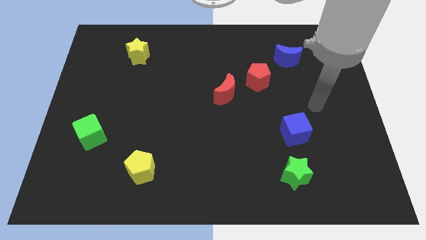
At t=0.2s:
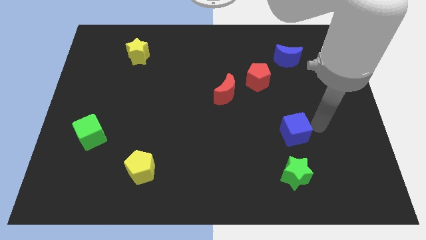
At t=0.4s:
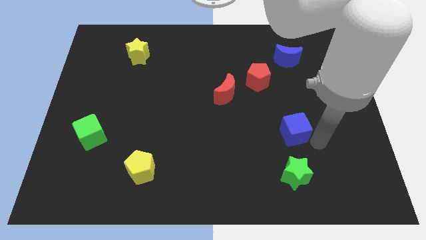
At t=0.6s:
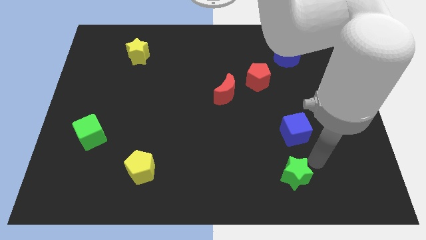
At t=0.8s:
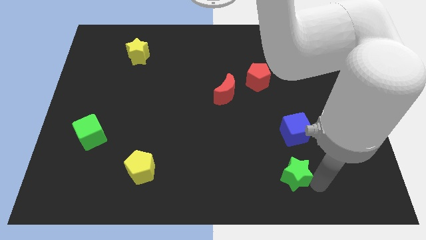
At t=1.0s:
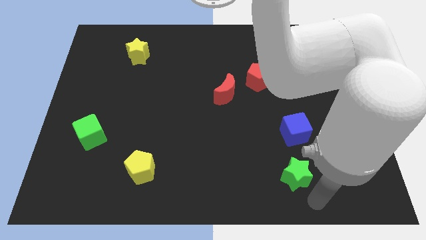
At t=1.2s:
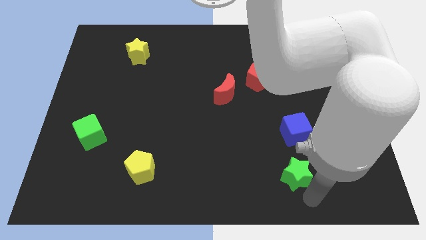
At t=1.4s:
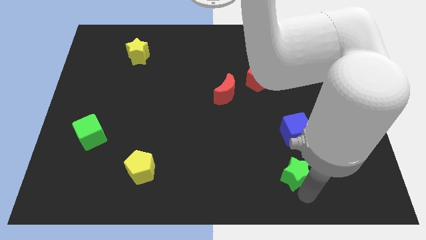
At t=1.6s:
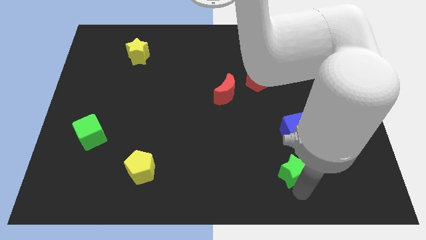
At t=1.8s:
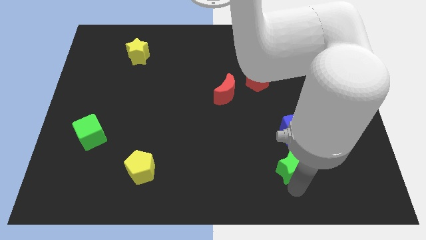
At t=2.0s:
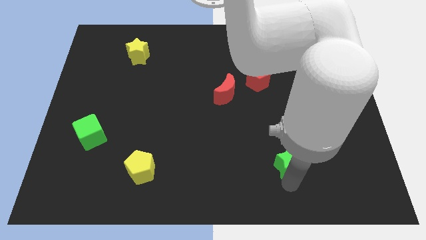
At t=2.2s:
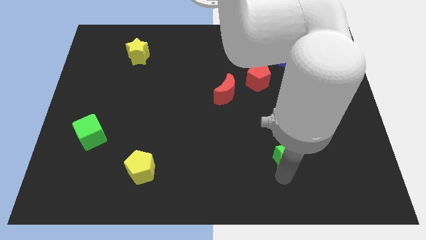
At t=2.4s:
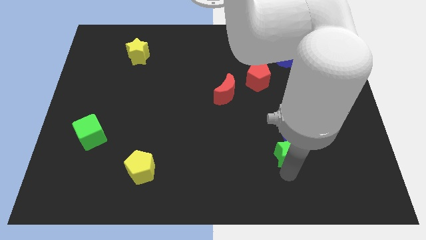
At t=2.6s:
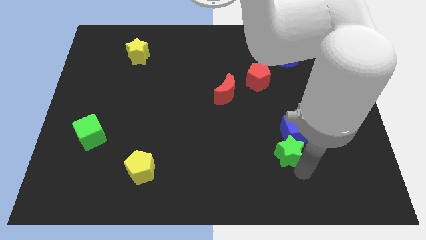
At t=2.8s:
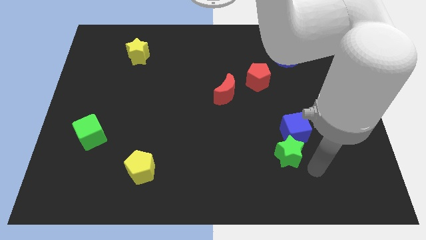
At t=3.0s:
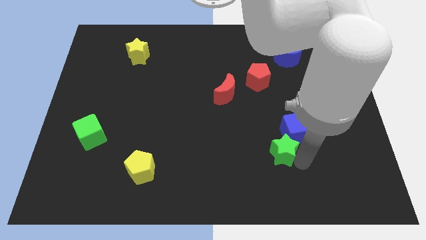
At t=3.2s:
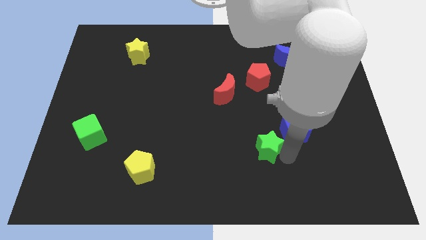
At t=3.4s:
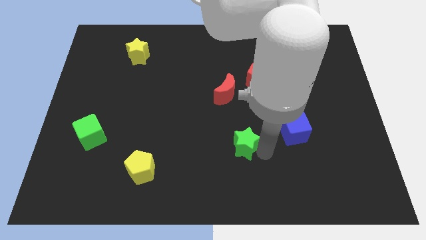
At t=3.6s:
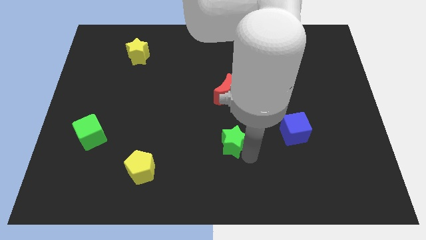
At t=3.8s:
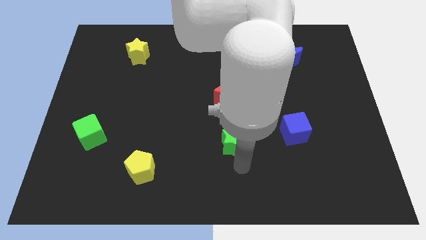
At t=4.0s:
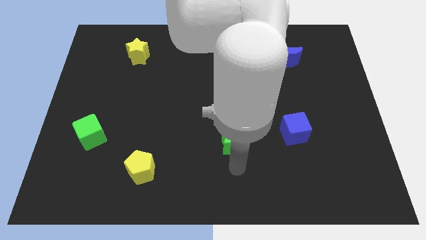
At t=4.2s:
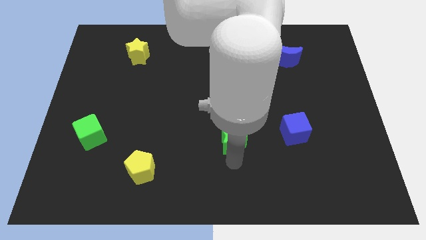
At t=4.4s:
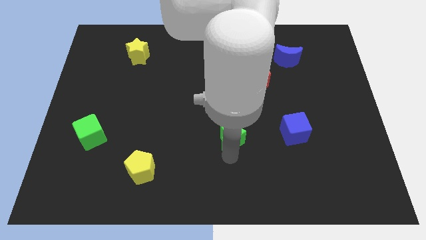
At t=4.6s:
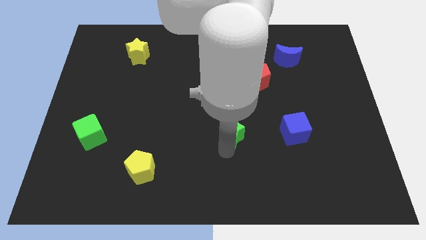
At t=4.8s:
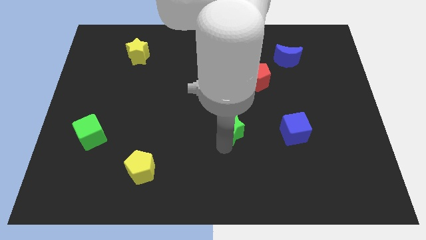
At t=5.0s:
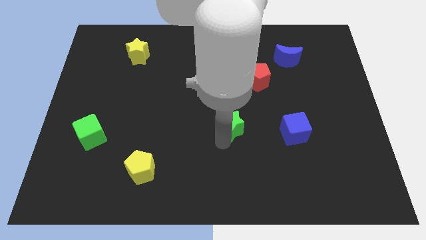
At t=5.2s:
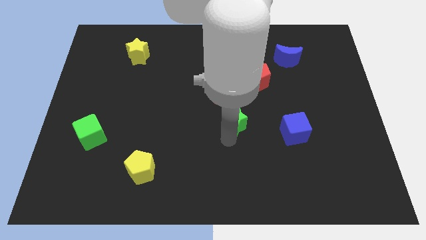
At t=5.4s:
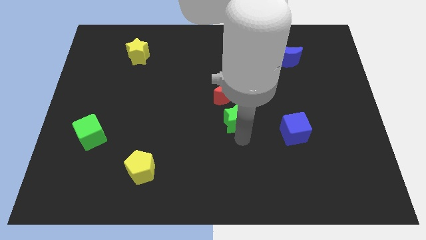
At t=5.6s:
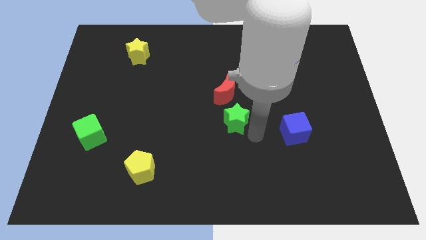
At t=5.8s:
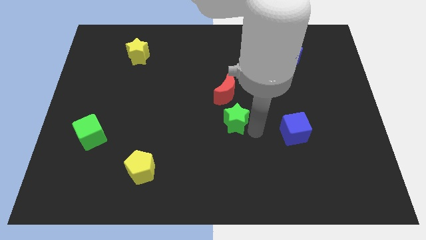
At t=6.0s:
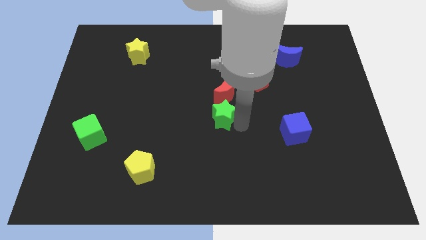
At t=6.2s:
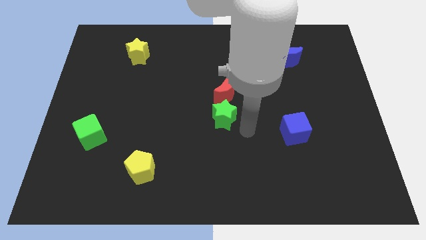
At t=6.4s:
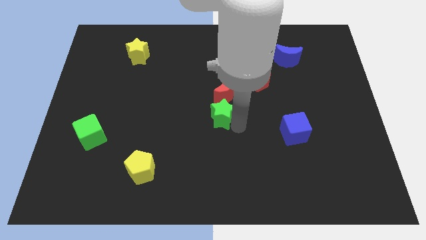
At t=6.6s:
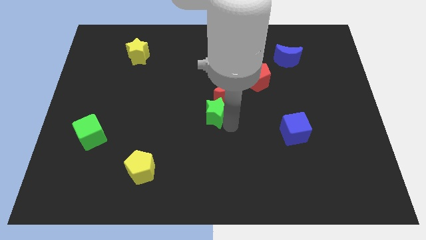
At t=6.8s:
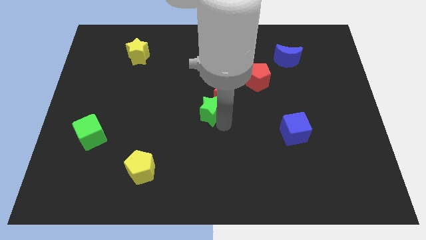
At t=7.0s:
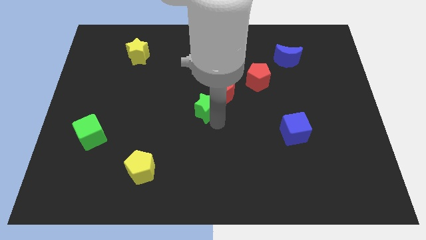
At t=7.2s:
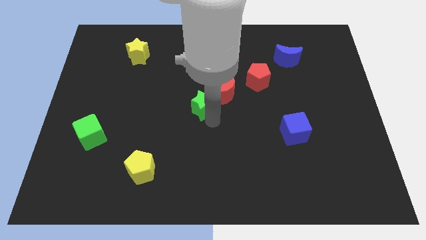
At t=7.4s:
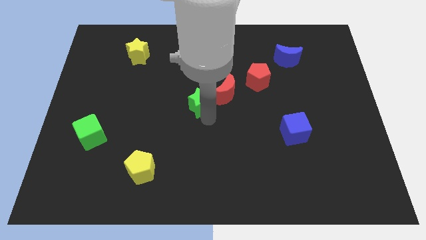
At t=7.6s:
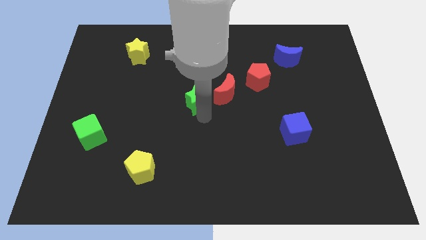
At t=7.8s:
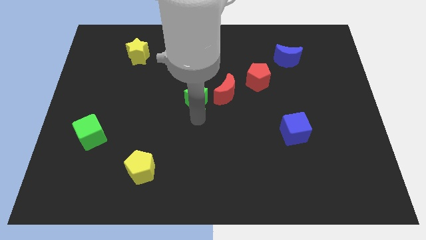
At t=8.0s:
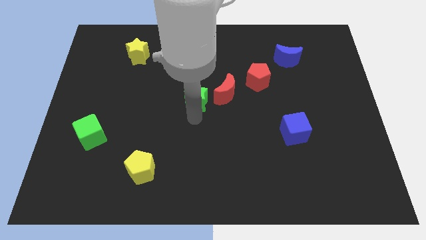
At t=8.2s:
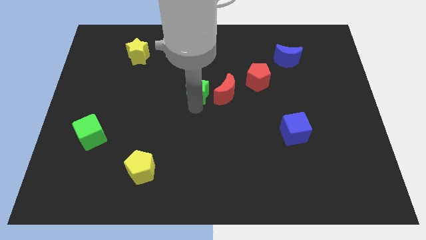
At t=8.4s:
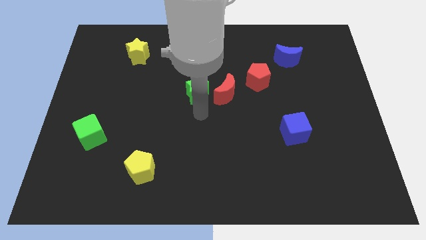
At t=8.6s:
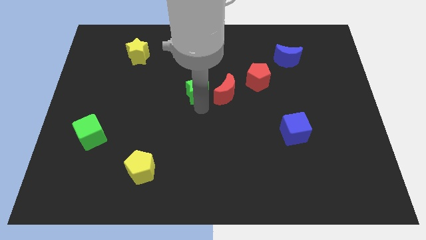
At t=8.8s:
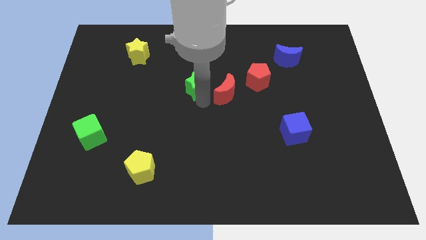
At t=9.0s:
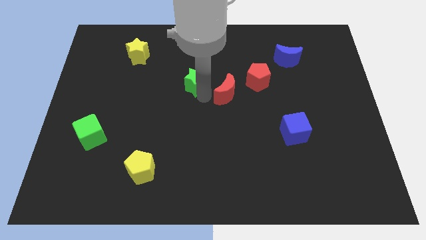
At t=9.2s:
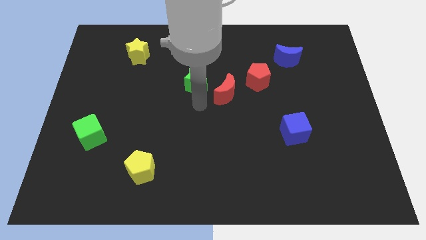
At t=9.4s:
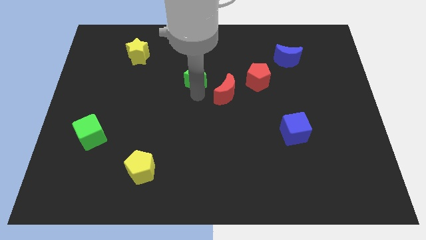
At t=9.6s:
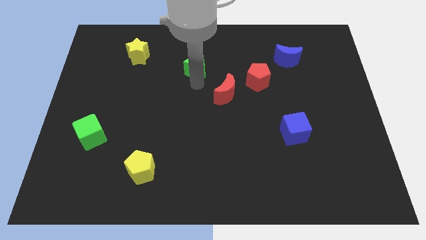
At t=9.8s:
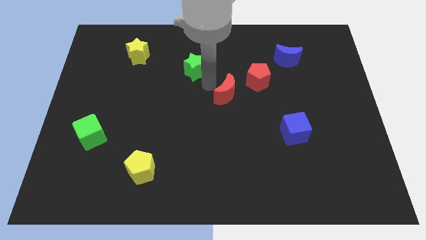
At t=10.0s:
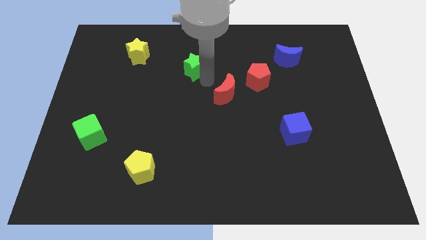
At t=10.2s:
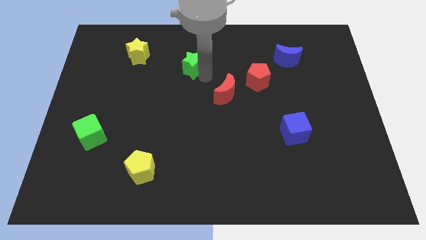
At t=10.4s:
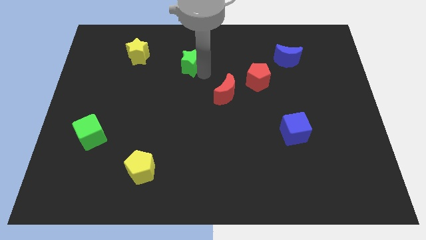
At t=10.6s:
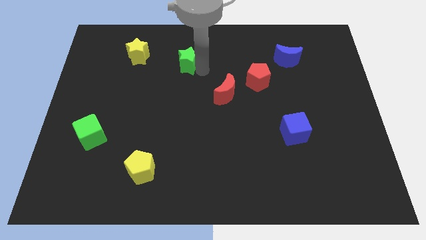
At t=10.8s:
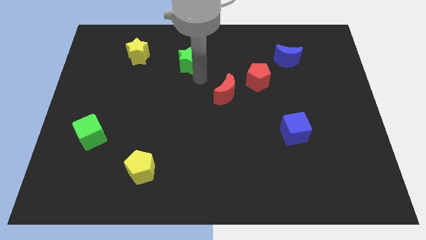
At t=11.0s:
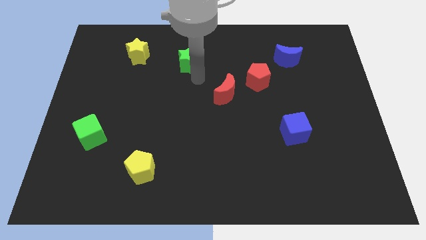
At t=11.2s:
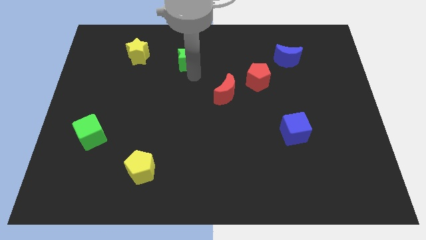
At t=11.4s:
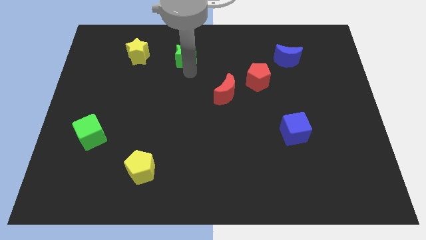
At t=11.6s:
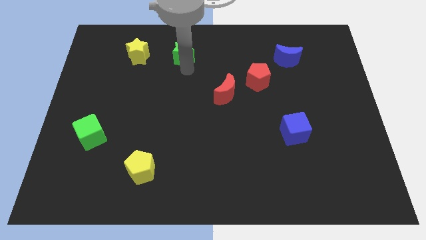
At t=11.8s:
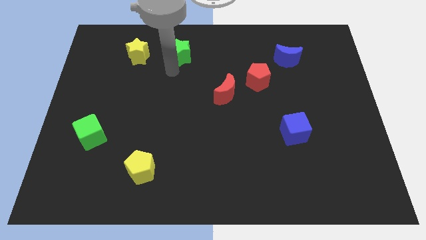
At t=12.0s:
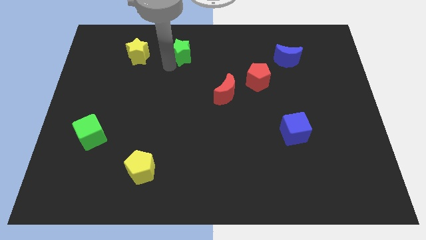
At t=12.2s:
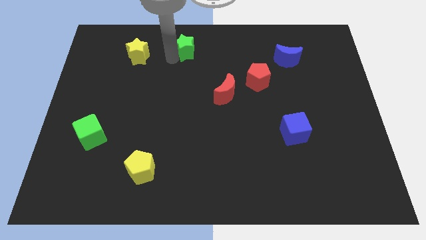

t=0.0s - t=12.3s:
put the green star to the towards your base
